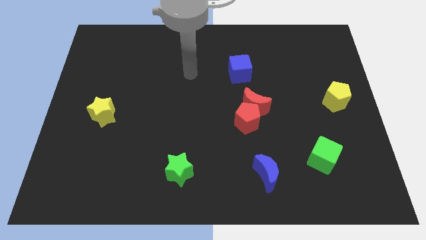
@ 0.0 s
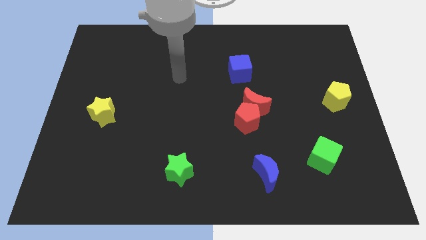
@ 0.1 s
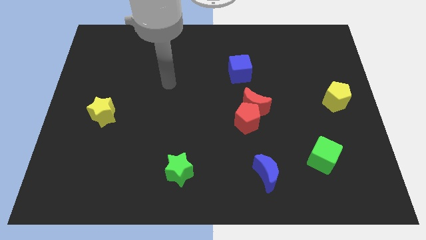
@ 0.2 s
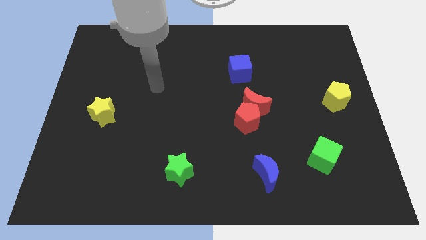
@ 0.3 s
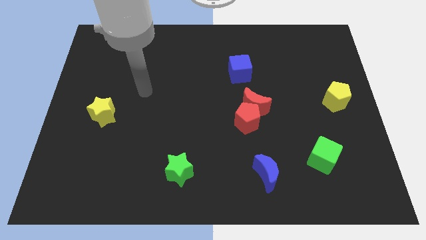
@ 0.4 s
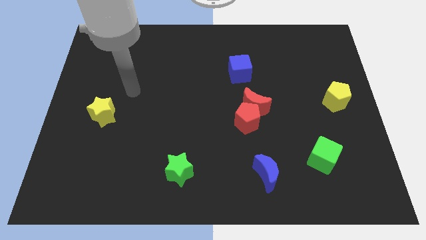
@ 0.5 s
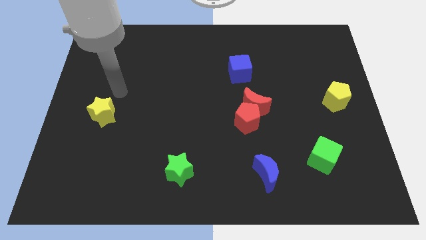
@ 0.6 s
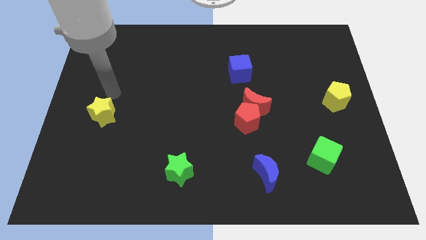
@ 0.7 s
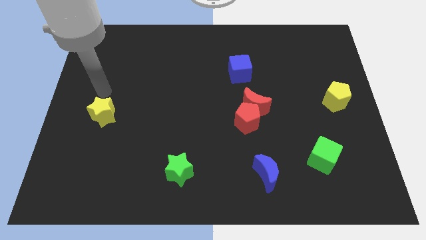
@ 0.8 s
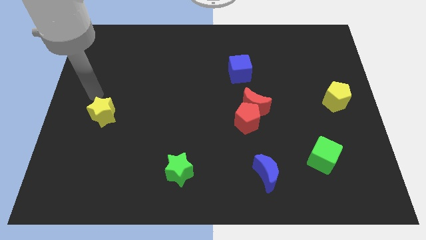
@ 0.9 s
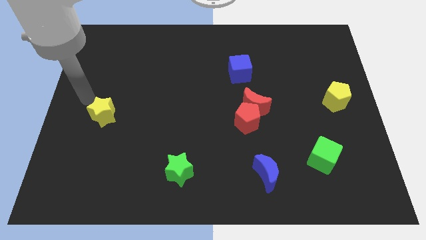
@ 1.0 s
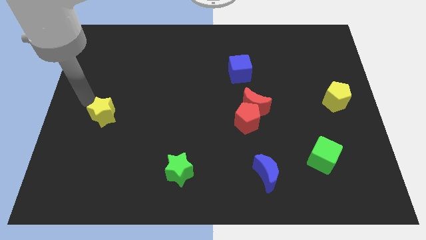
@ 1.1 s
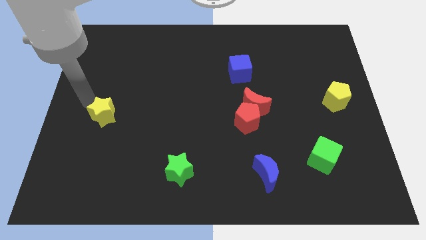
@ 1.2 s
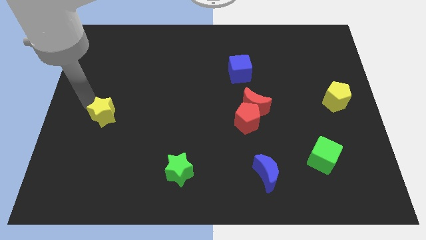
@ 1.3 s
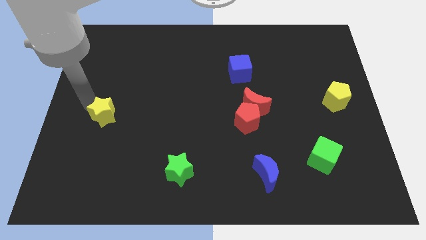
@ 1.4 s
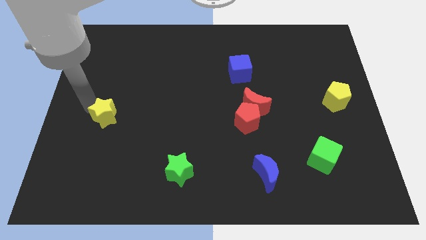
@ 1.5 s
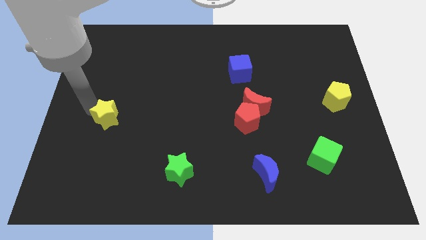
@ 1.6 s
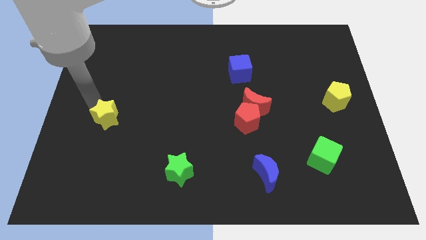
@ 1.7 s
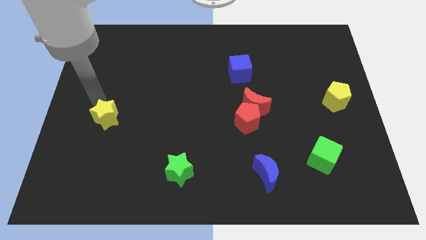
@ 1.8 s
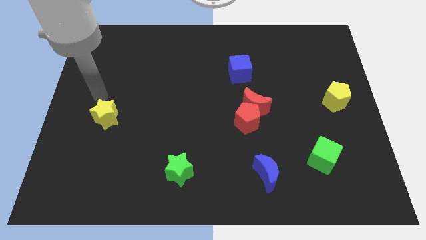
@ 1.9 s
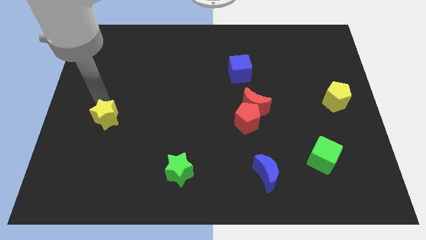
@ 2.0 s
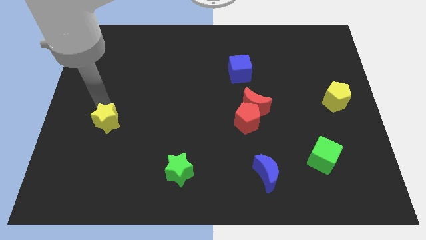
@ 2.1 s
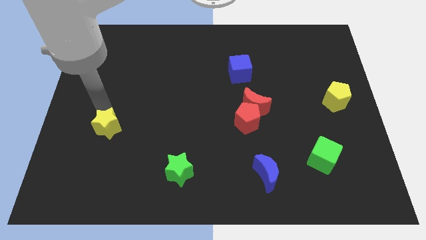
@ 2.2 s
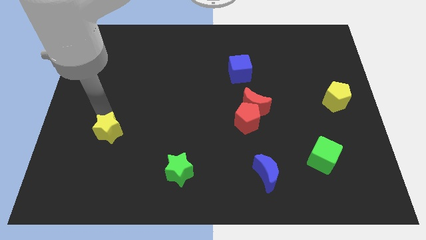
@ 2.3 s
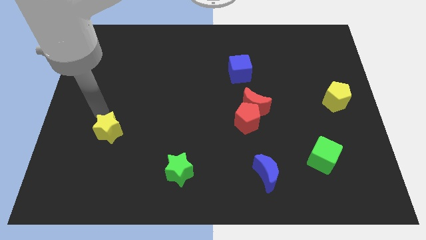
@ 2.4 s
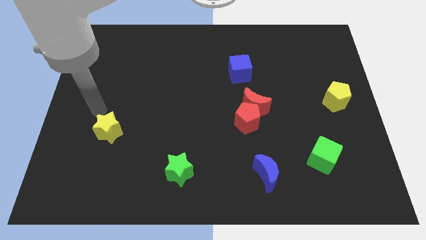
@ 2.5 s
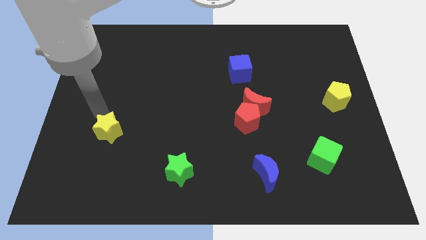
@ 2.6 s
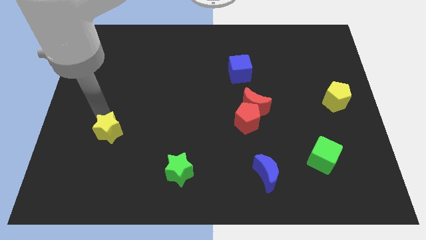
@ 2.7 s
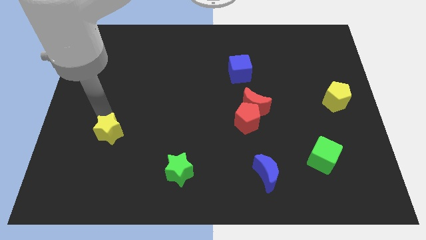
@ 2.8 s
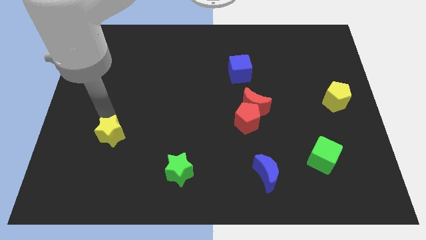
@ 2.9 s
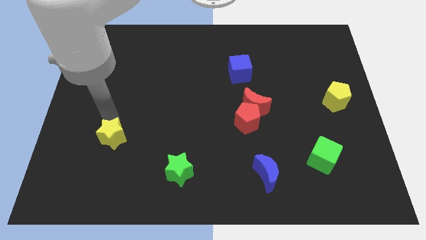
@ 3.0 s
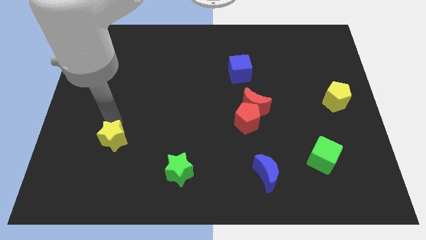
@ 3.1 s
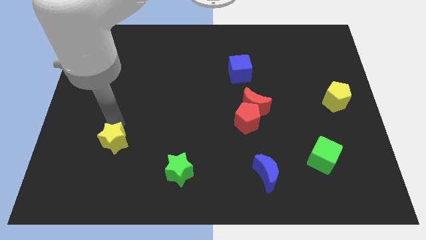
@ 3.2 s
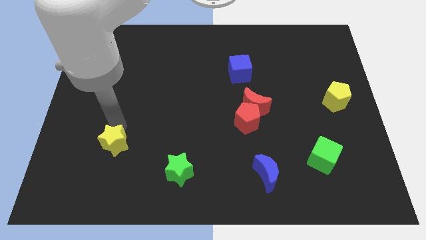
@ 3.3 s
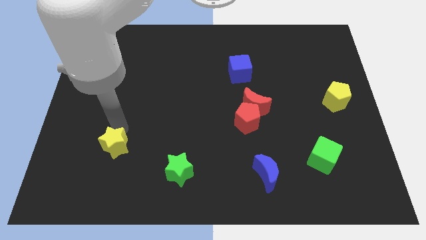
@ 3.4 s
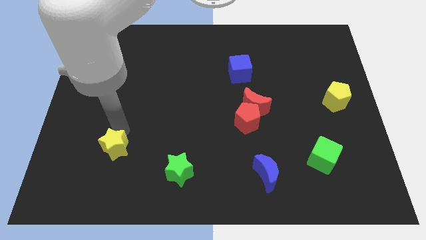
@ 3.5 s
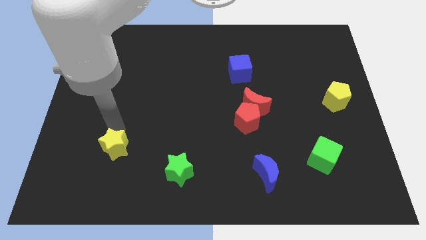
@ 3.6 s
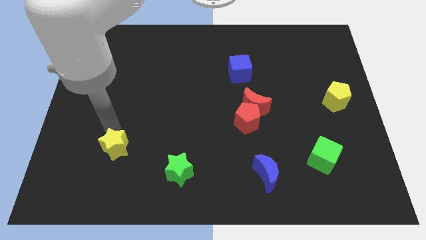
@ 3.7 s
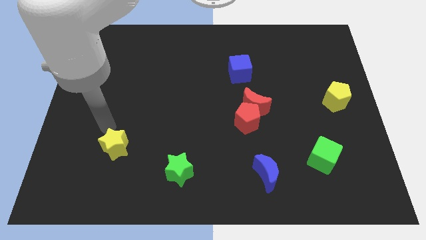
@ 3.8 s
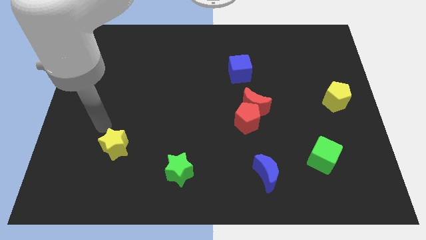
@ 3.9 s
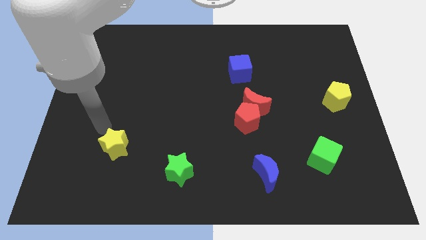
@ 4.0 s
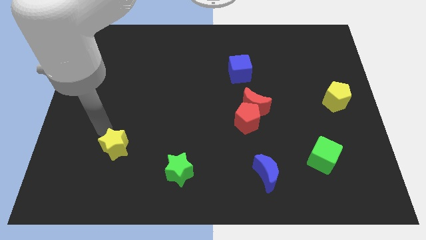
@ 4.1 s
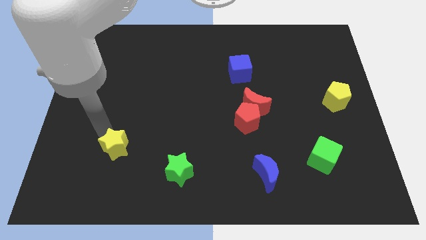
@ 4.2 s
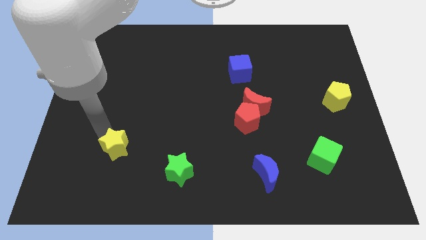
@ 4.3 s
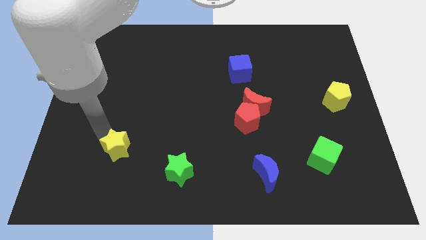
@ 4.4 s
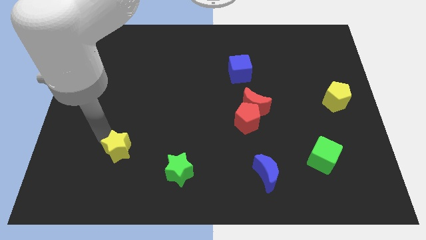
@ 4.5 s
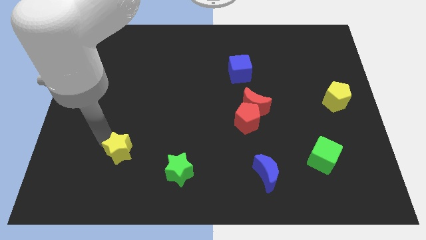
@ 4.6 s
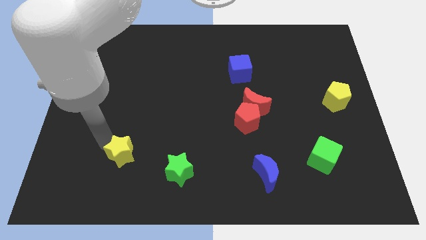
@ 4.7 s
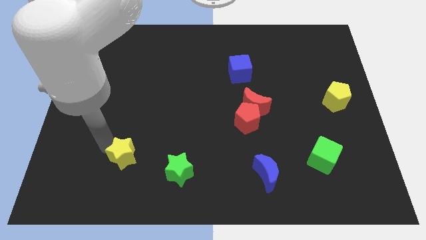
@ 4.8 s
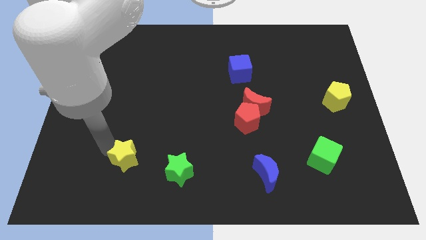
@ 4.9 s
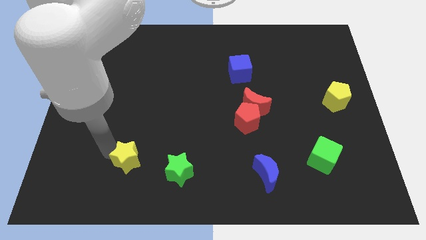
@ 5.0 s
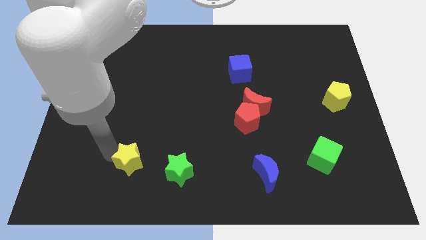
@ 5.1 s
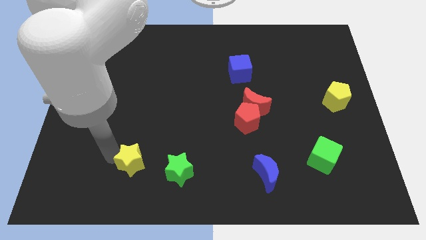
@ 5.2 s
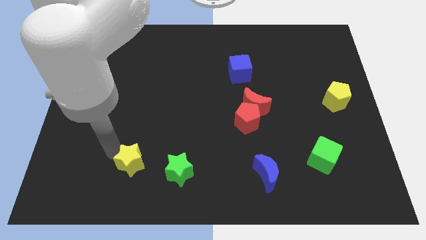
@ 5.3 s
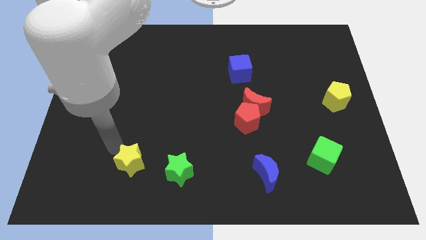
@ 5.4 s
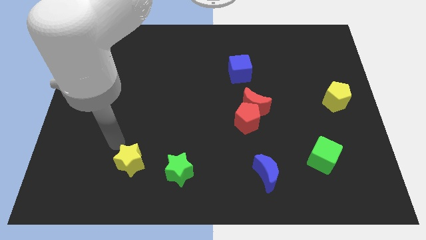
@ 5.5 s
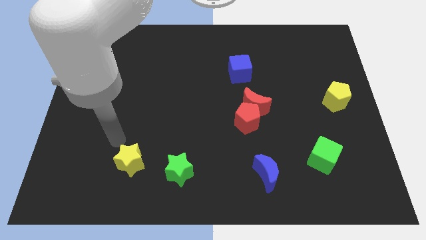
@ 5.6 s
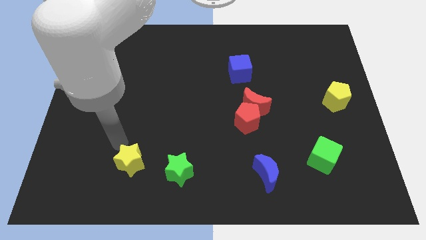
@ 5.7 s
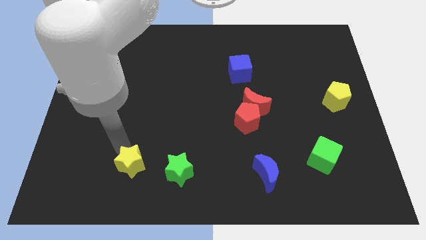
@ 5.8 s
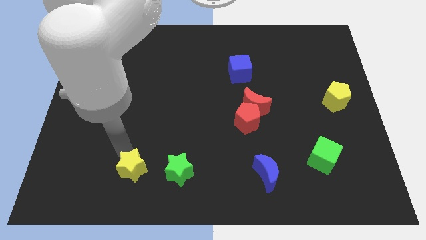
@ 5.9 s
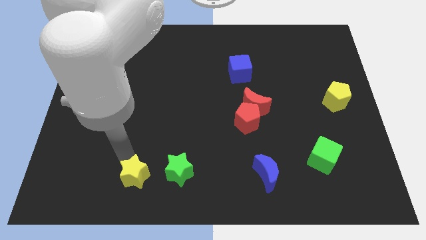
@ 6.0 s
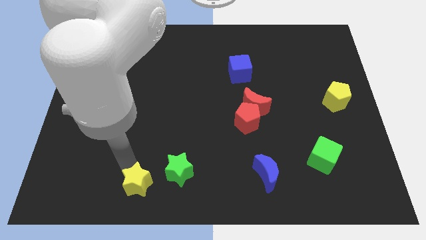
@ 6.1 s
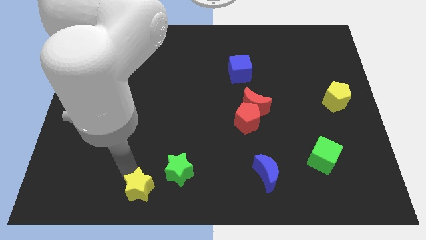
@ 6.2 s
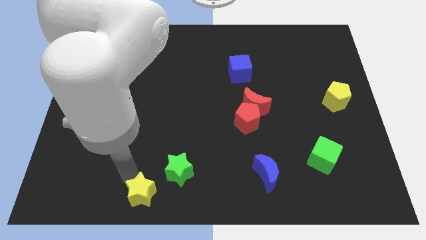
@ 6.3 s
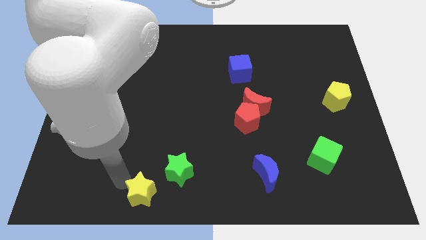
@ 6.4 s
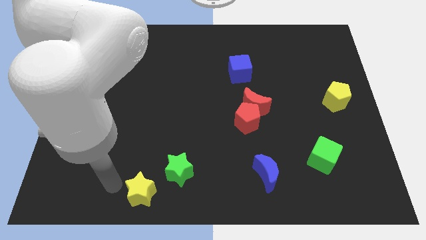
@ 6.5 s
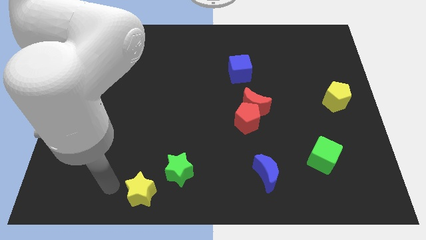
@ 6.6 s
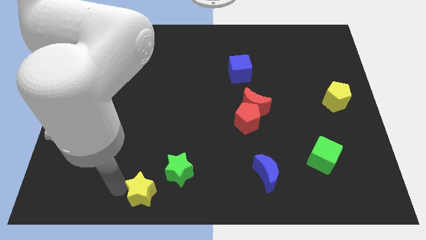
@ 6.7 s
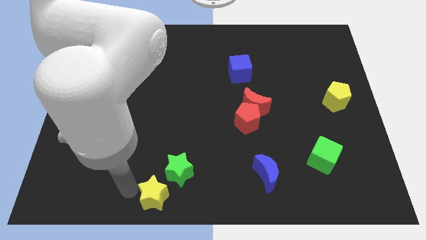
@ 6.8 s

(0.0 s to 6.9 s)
push the yellow star to the bottom

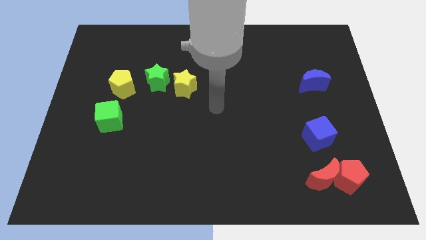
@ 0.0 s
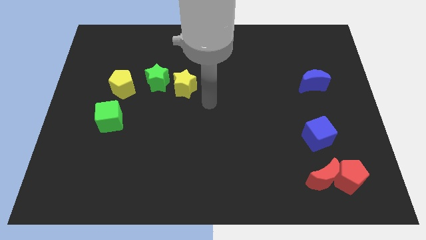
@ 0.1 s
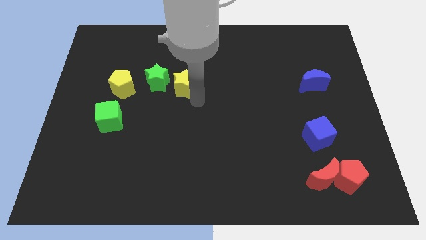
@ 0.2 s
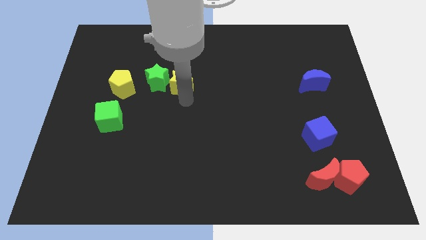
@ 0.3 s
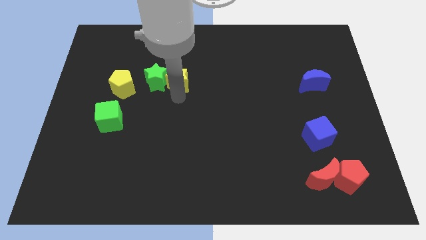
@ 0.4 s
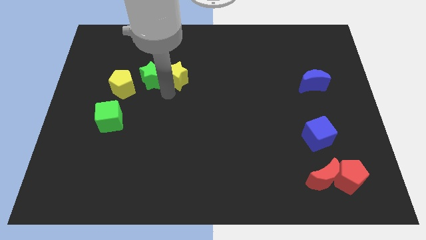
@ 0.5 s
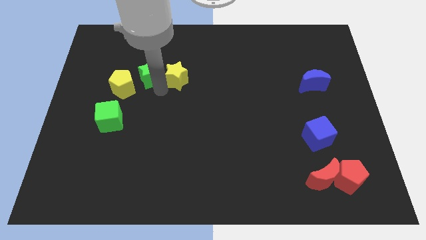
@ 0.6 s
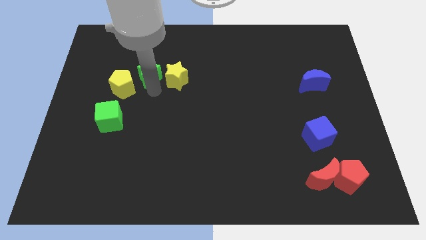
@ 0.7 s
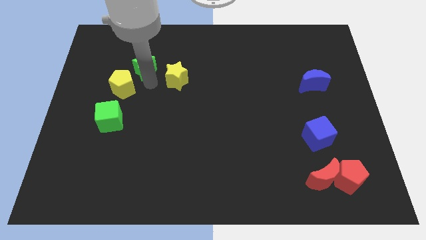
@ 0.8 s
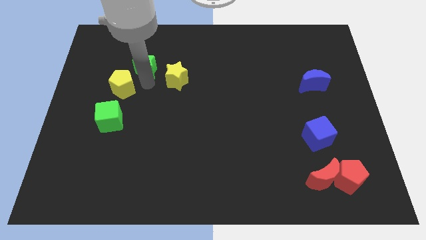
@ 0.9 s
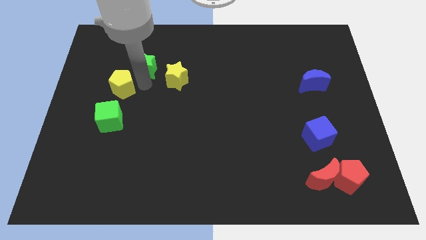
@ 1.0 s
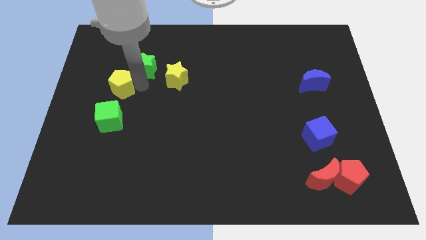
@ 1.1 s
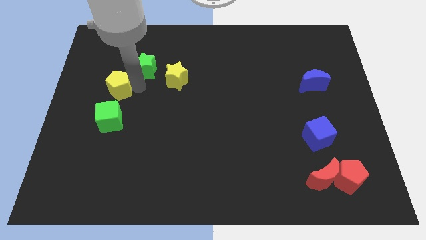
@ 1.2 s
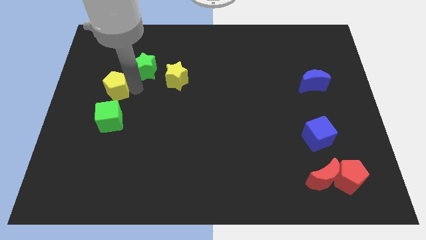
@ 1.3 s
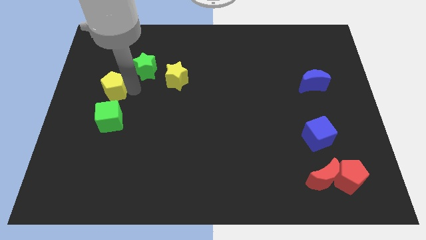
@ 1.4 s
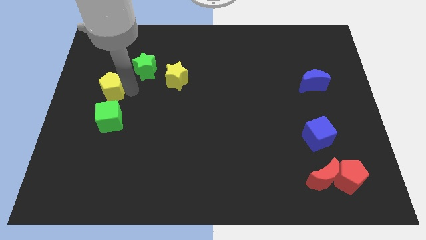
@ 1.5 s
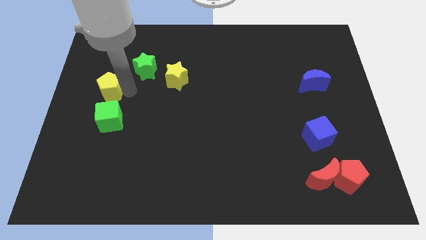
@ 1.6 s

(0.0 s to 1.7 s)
push the yellow pentagon to the left side of the board
